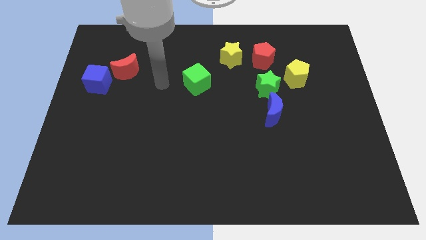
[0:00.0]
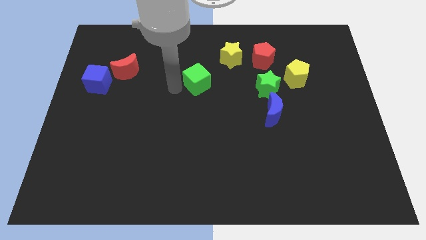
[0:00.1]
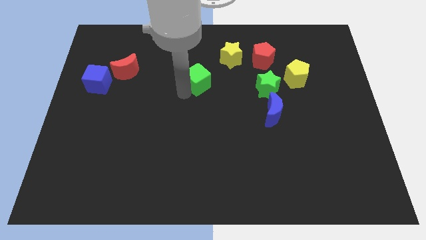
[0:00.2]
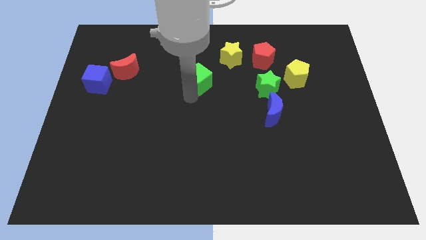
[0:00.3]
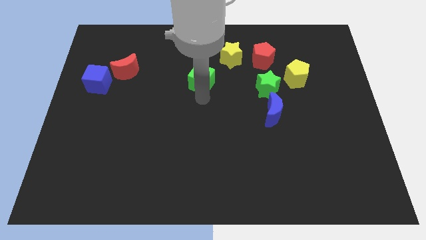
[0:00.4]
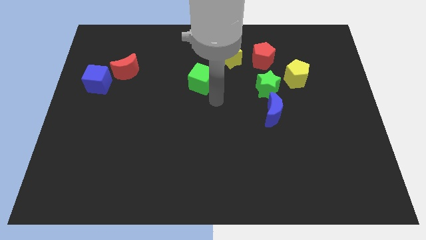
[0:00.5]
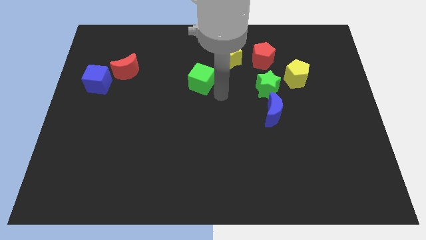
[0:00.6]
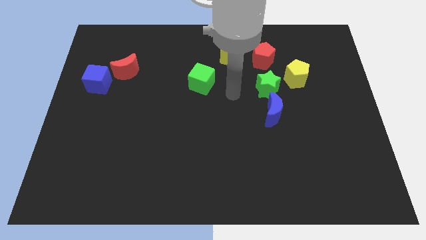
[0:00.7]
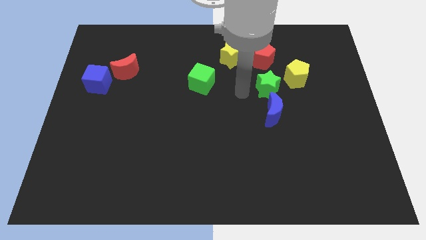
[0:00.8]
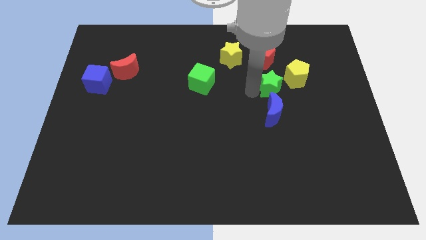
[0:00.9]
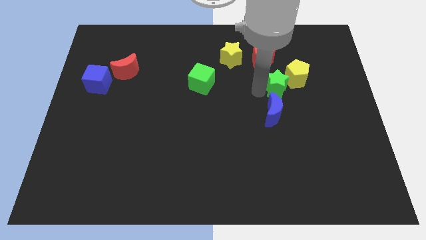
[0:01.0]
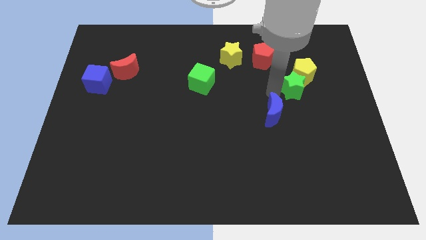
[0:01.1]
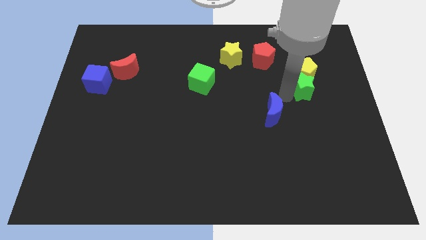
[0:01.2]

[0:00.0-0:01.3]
separate the blue moon from the green star

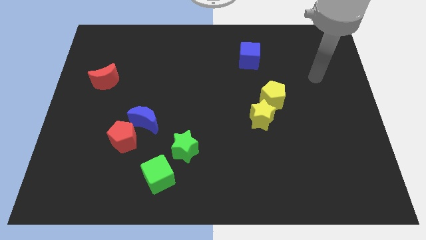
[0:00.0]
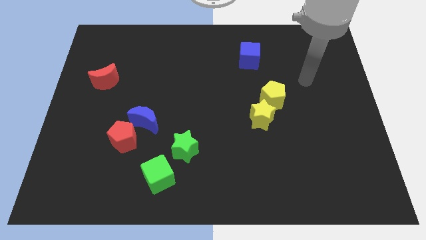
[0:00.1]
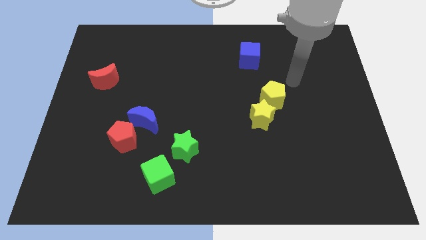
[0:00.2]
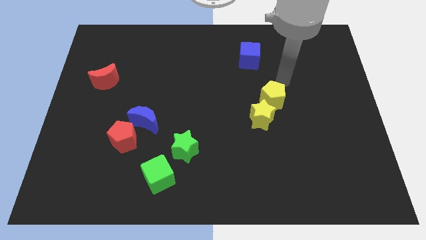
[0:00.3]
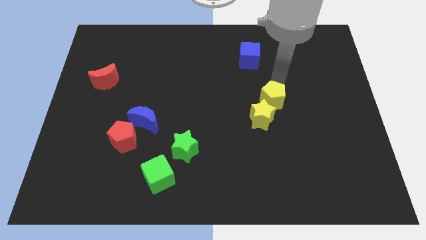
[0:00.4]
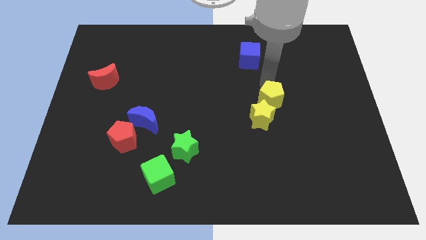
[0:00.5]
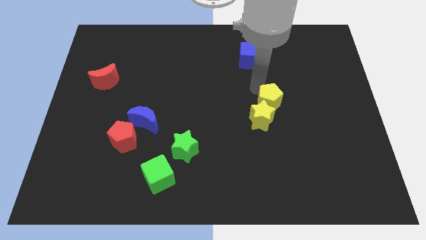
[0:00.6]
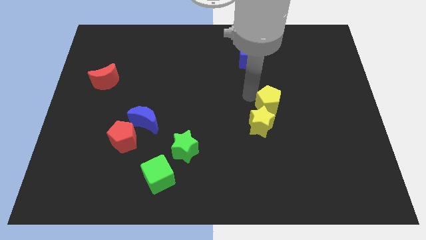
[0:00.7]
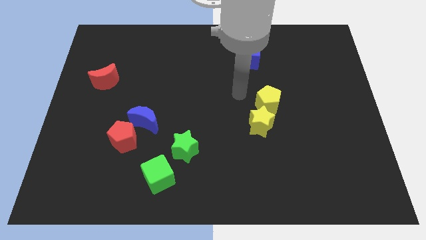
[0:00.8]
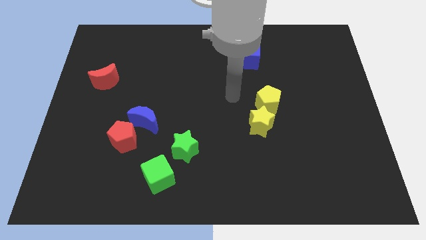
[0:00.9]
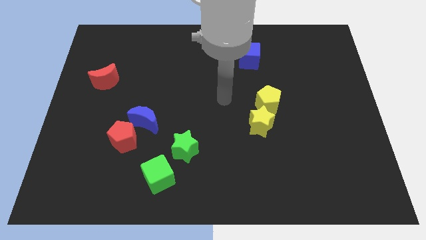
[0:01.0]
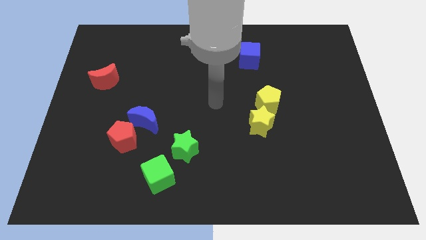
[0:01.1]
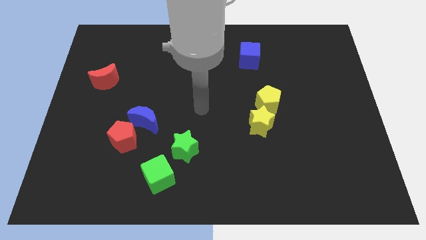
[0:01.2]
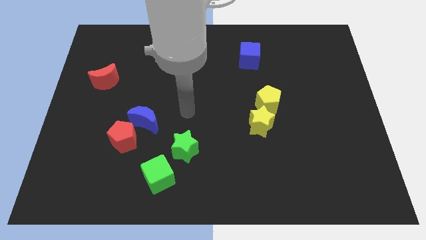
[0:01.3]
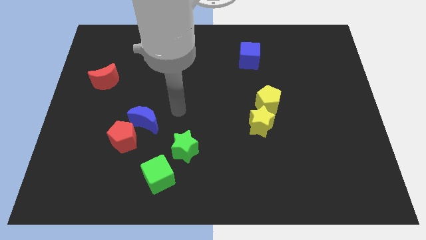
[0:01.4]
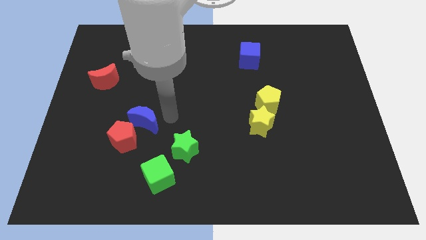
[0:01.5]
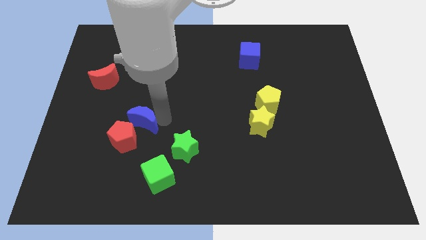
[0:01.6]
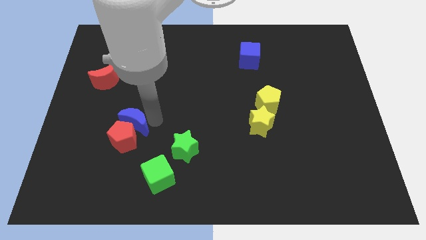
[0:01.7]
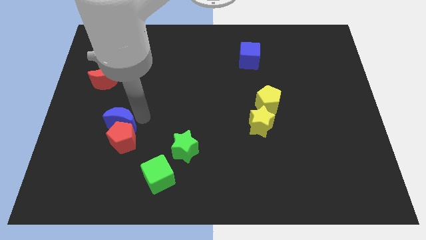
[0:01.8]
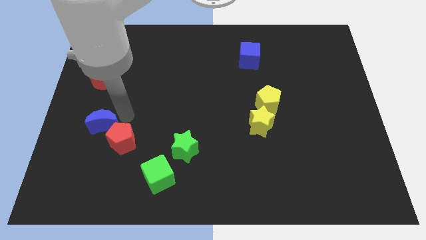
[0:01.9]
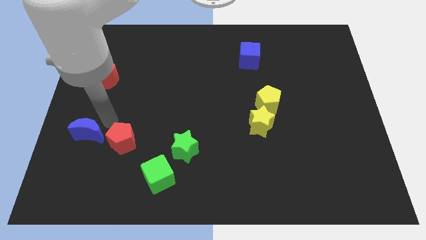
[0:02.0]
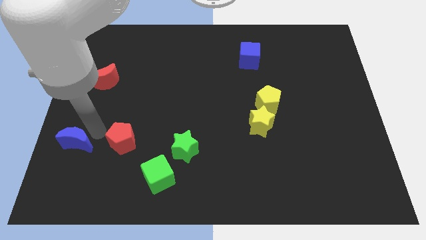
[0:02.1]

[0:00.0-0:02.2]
separate the red pentagon from the blue moon

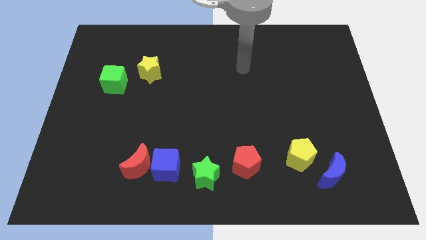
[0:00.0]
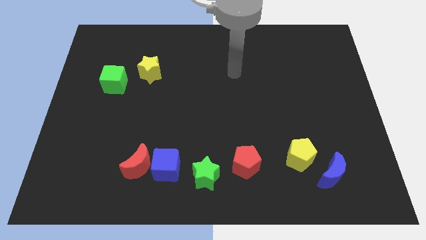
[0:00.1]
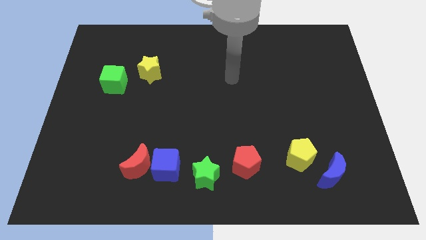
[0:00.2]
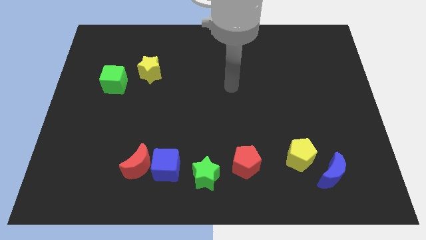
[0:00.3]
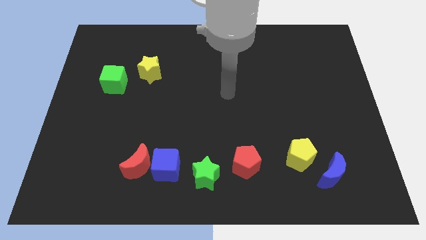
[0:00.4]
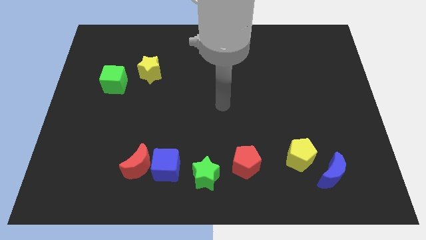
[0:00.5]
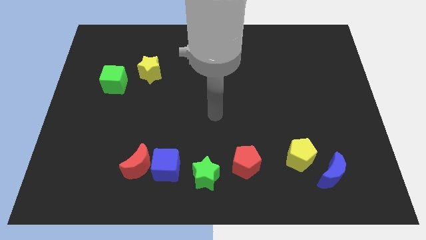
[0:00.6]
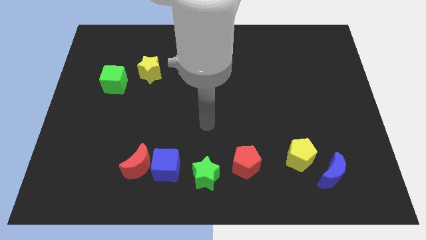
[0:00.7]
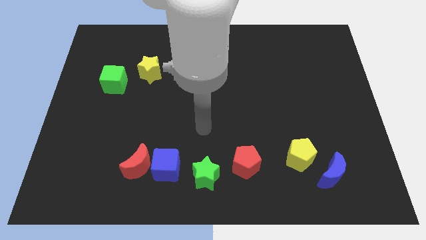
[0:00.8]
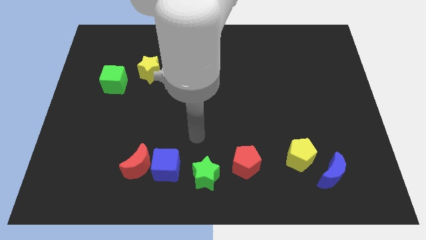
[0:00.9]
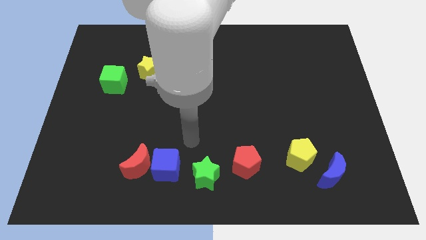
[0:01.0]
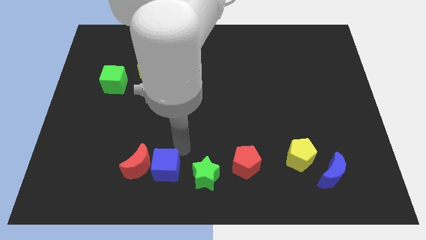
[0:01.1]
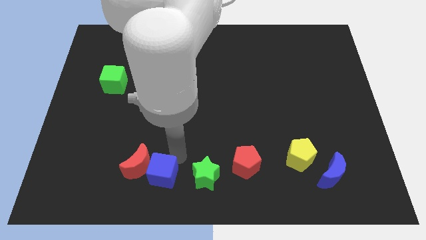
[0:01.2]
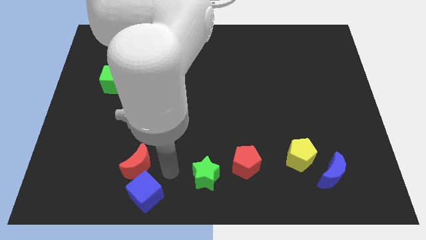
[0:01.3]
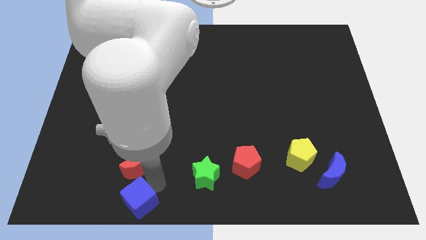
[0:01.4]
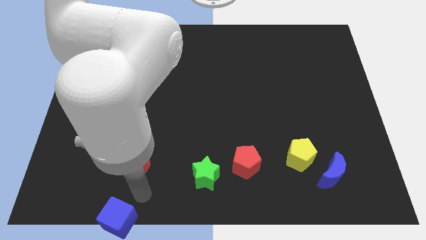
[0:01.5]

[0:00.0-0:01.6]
move the red moon away from the blue cube

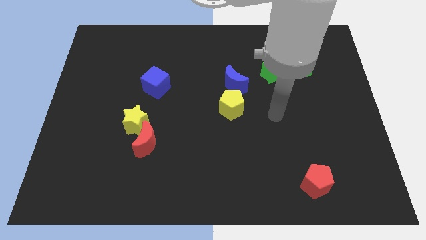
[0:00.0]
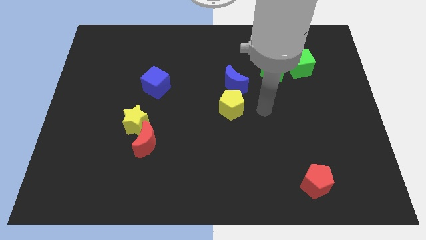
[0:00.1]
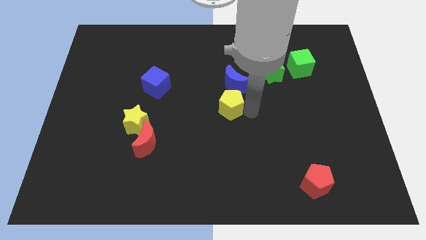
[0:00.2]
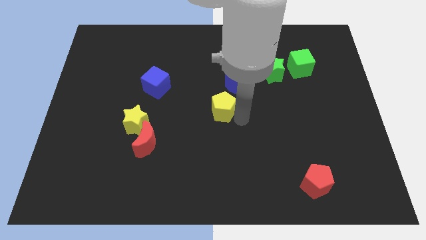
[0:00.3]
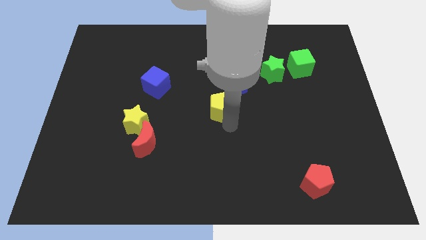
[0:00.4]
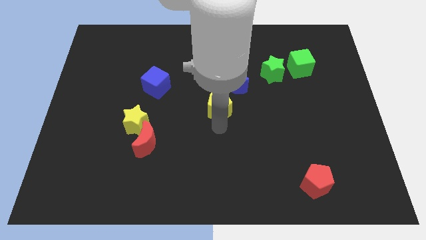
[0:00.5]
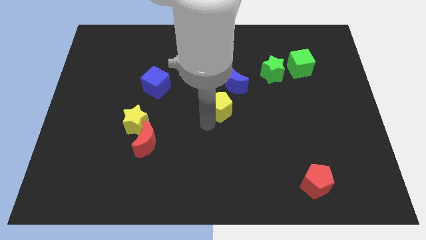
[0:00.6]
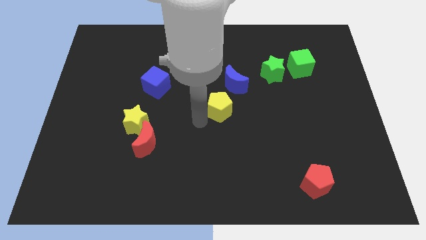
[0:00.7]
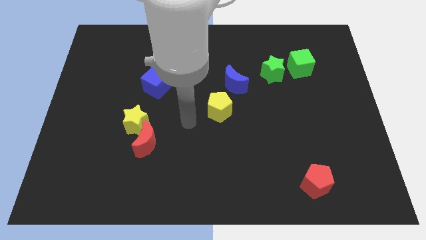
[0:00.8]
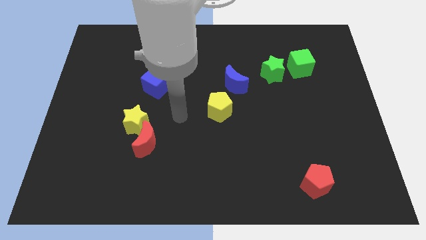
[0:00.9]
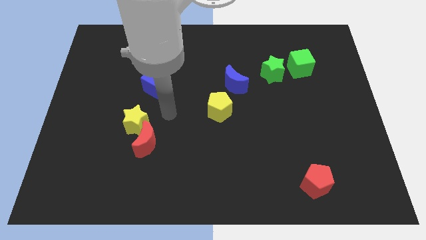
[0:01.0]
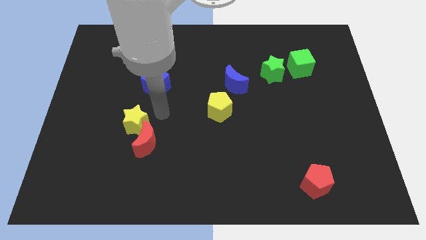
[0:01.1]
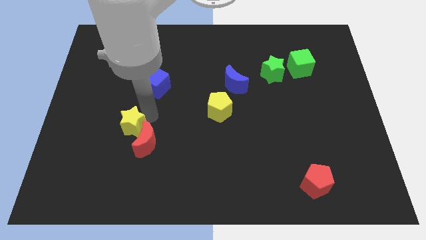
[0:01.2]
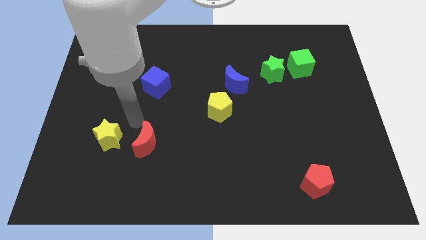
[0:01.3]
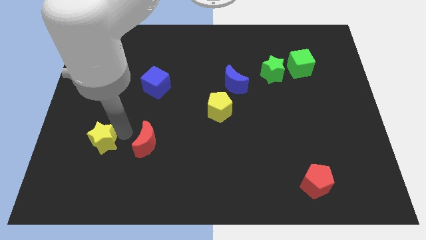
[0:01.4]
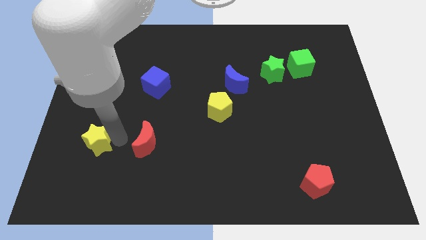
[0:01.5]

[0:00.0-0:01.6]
separate the red moon from the yellow star

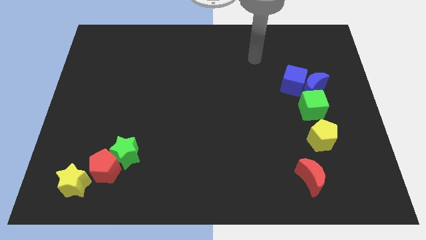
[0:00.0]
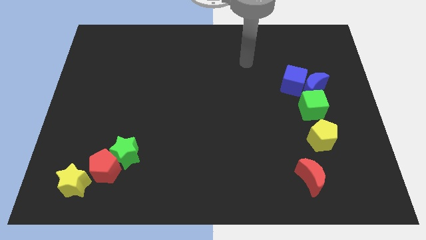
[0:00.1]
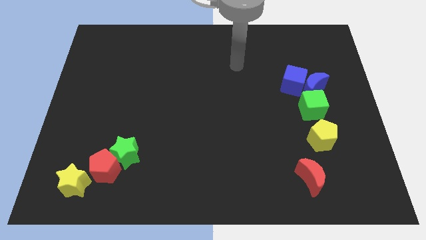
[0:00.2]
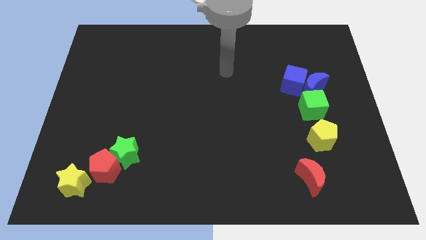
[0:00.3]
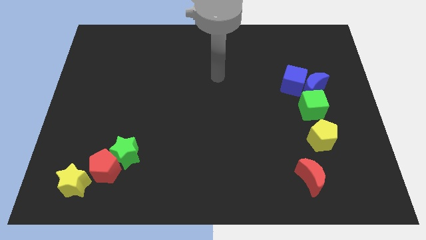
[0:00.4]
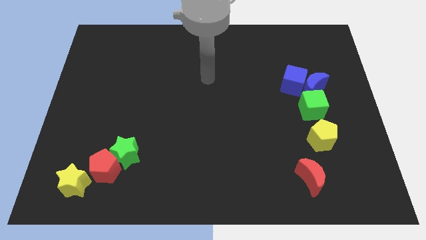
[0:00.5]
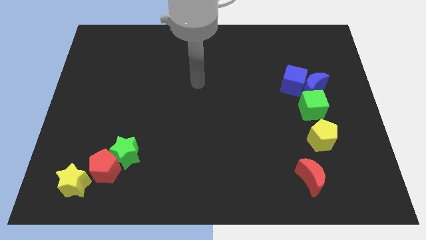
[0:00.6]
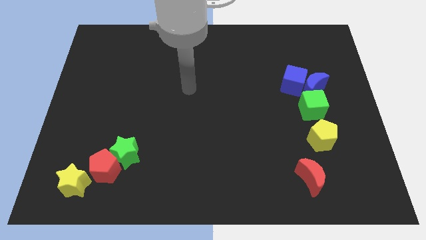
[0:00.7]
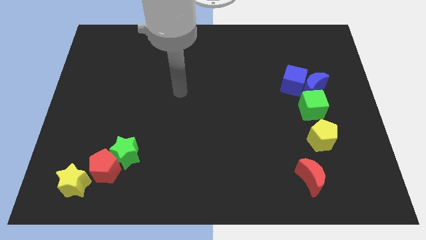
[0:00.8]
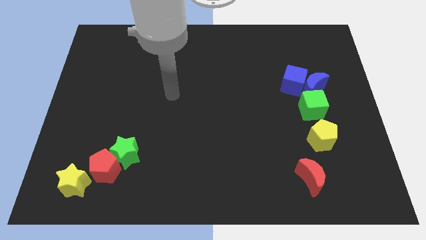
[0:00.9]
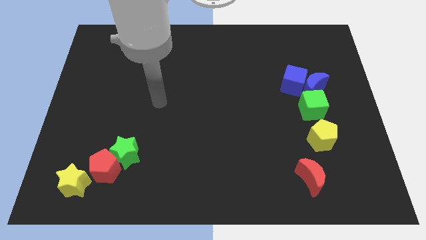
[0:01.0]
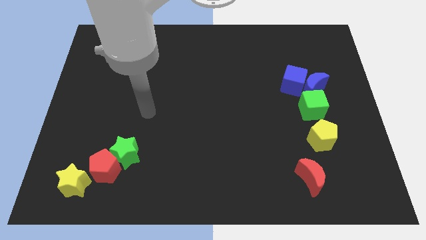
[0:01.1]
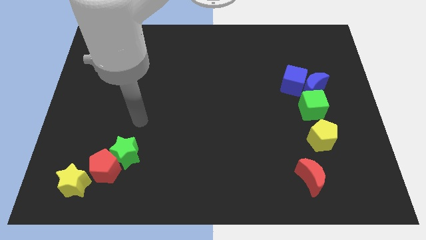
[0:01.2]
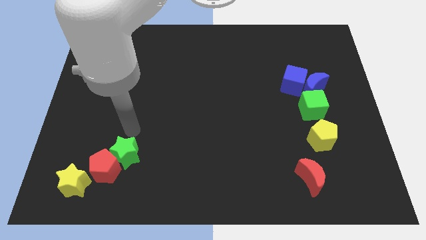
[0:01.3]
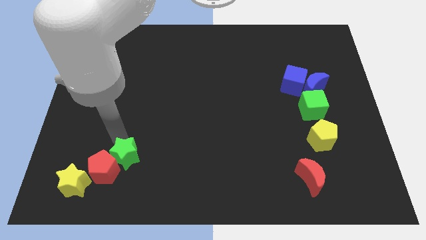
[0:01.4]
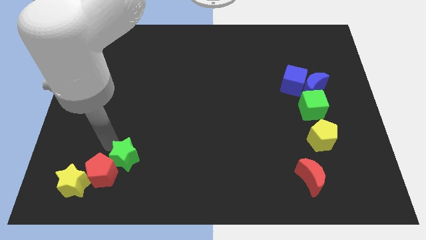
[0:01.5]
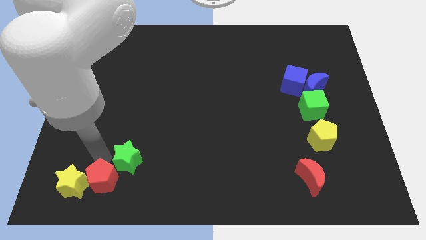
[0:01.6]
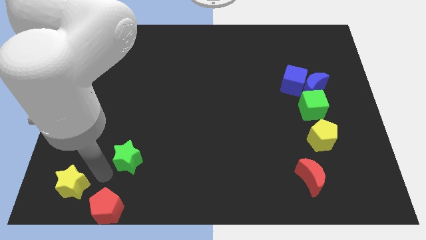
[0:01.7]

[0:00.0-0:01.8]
separate the green star from the red pentagon

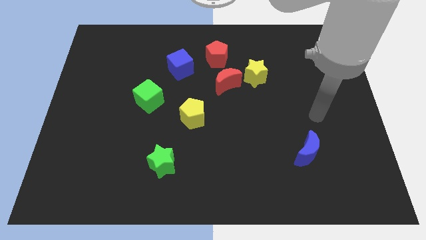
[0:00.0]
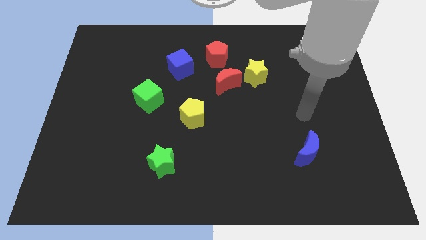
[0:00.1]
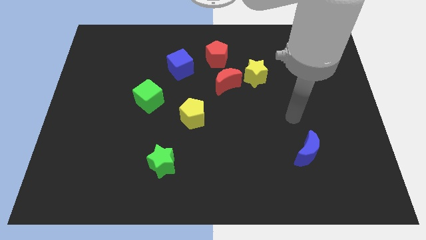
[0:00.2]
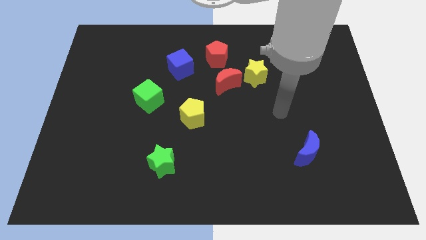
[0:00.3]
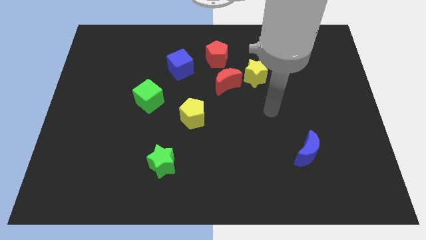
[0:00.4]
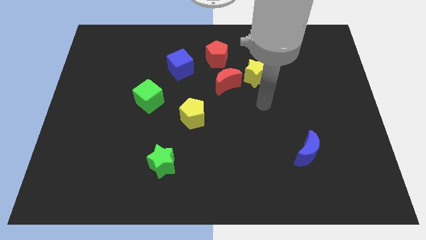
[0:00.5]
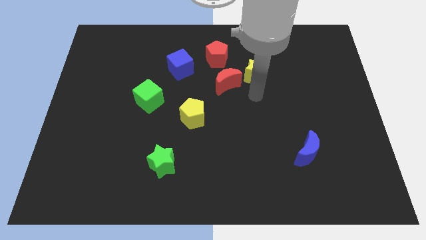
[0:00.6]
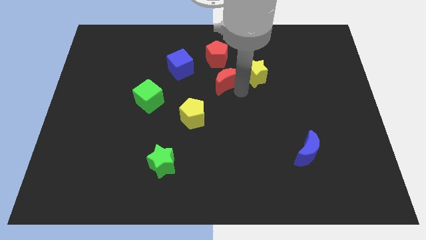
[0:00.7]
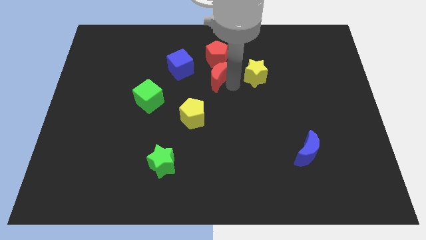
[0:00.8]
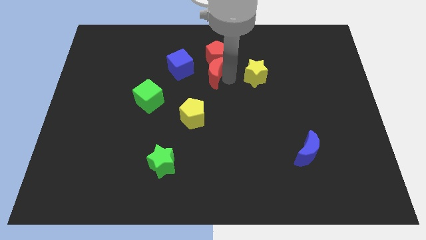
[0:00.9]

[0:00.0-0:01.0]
move the yellow star away from the red moon

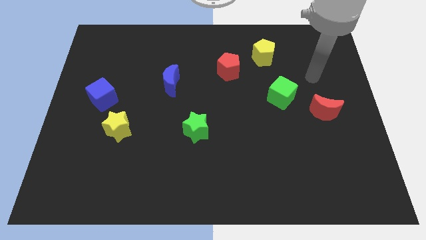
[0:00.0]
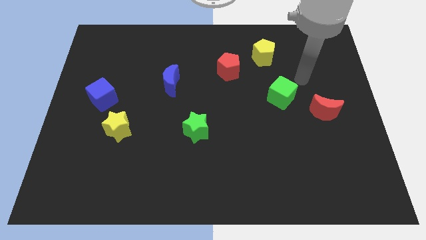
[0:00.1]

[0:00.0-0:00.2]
pull the blue cube apart from the yellow star
